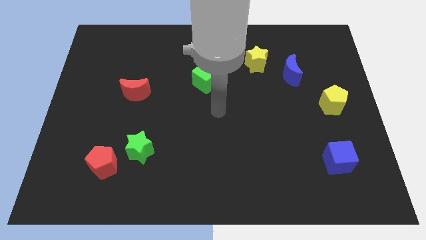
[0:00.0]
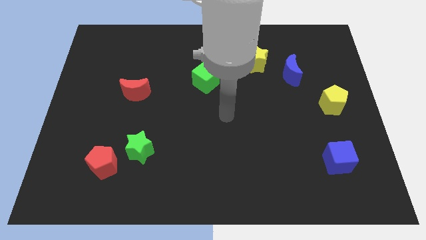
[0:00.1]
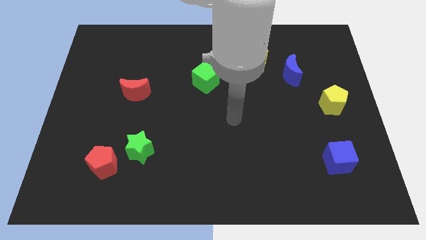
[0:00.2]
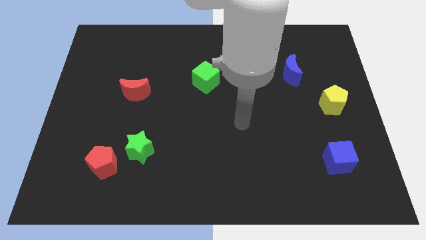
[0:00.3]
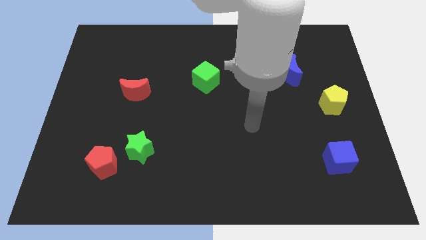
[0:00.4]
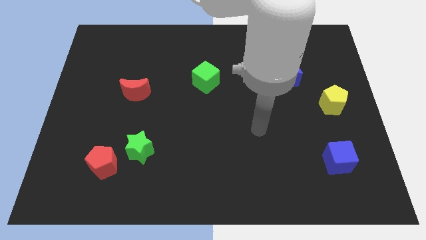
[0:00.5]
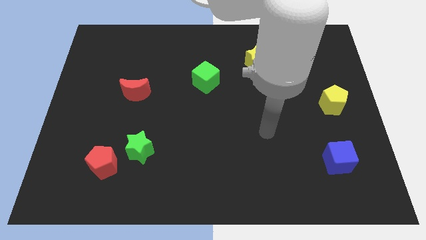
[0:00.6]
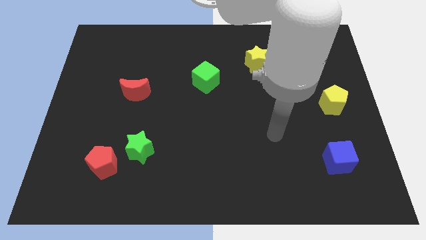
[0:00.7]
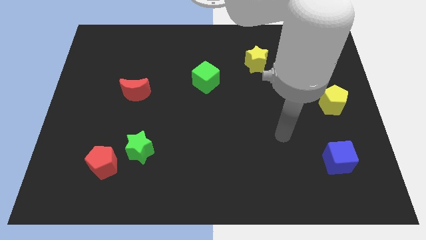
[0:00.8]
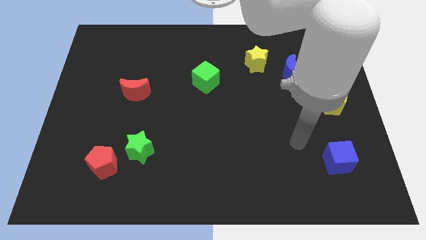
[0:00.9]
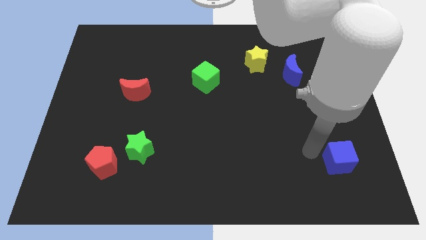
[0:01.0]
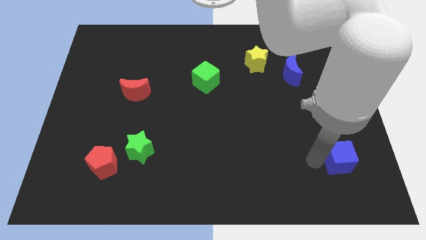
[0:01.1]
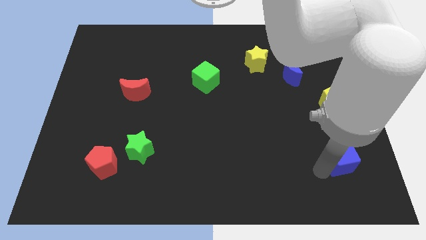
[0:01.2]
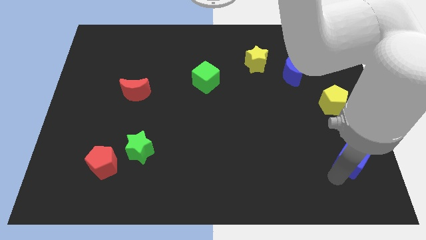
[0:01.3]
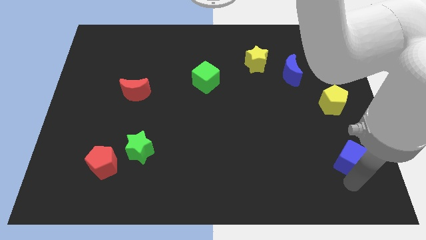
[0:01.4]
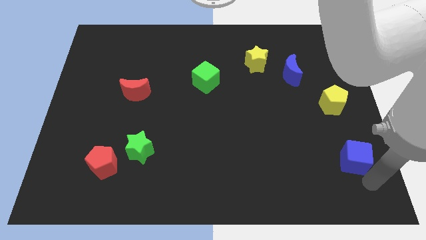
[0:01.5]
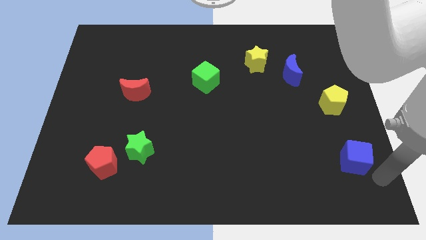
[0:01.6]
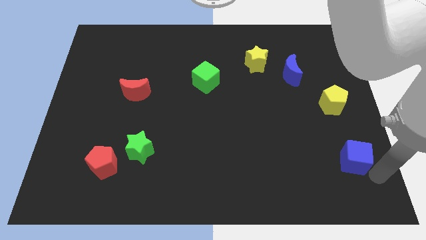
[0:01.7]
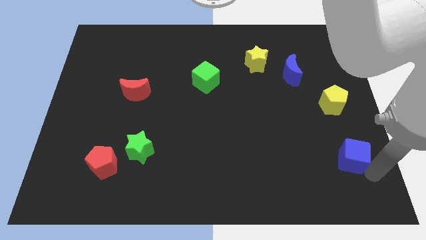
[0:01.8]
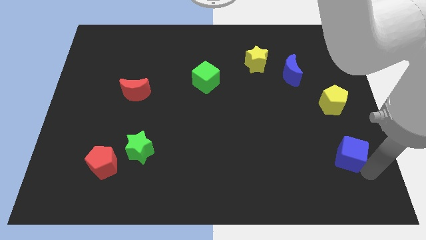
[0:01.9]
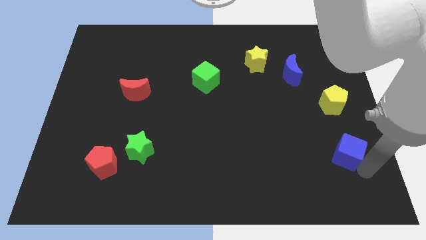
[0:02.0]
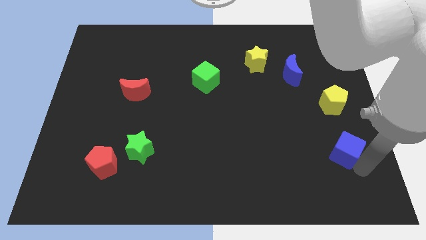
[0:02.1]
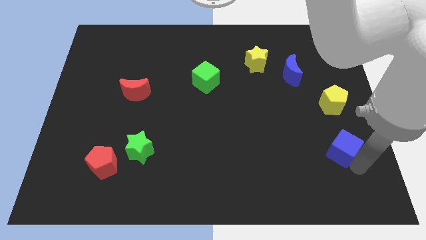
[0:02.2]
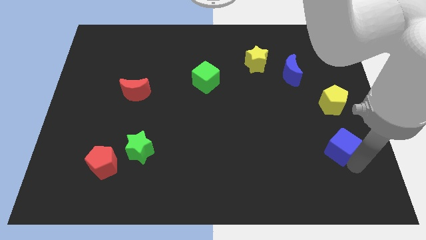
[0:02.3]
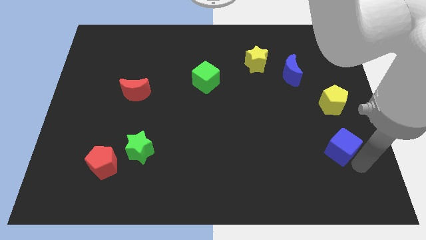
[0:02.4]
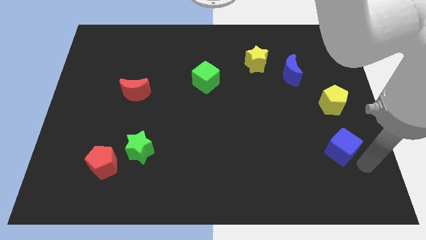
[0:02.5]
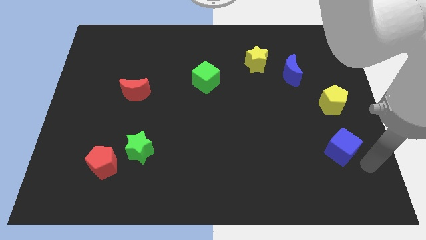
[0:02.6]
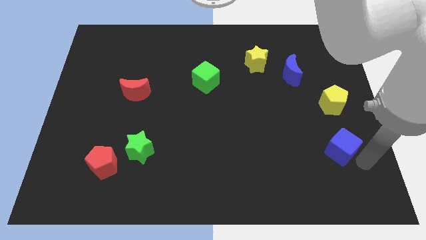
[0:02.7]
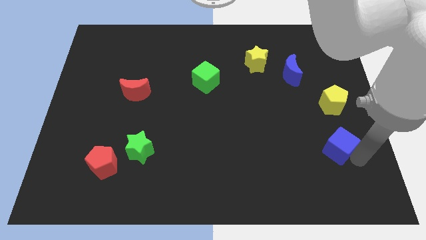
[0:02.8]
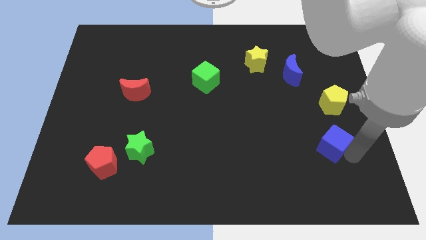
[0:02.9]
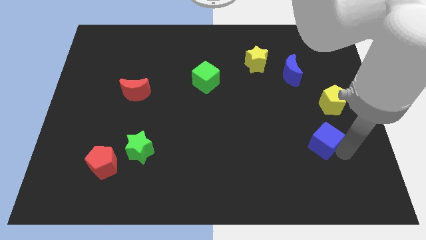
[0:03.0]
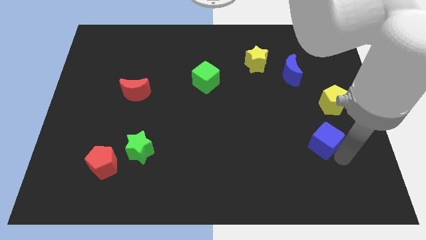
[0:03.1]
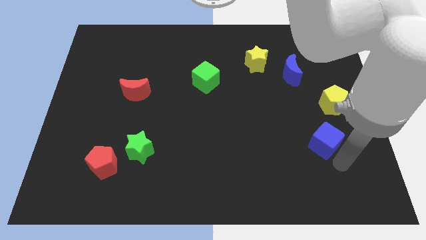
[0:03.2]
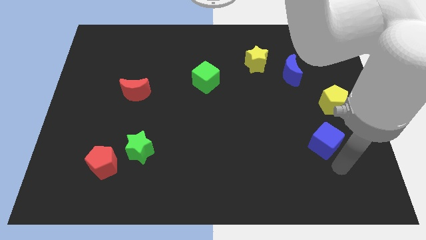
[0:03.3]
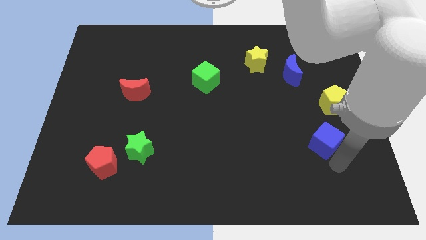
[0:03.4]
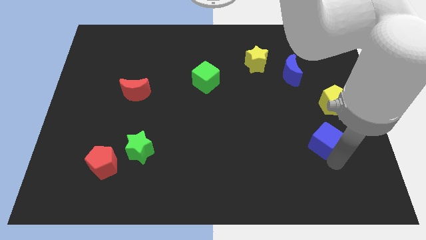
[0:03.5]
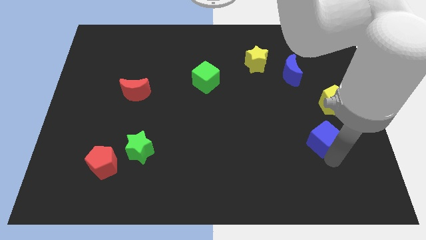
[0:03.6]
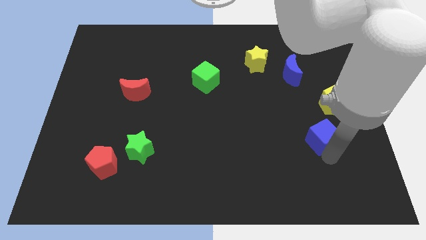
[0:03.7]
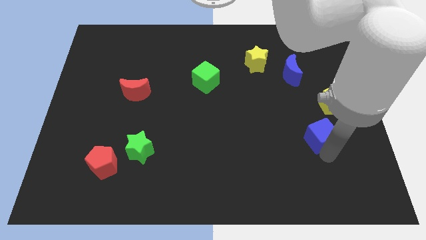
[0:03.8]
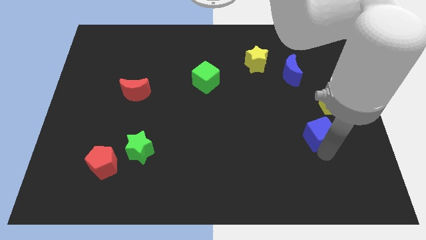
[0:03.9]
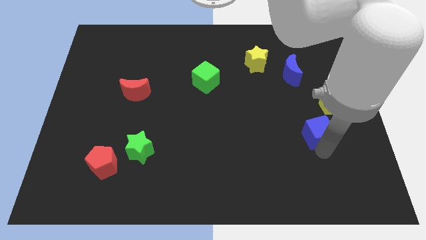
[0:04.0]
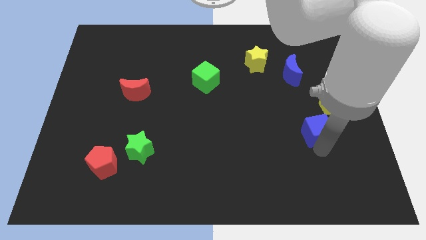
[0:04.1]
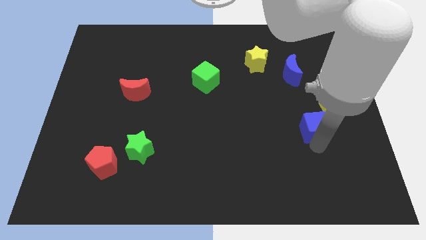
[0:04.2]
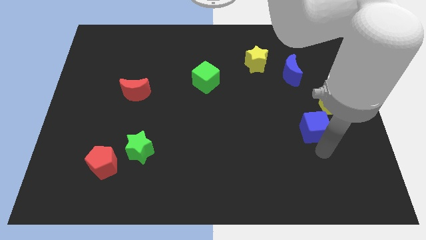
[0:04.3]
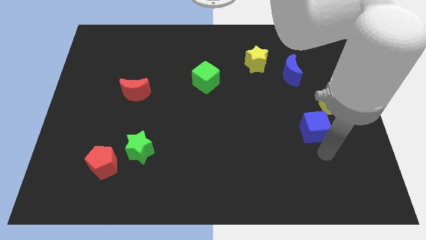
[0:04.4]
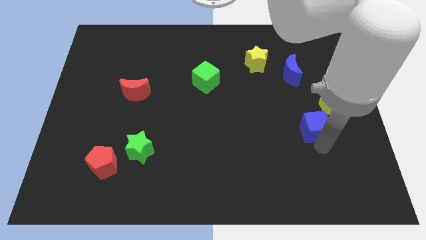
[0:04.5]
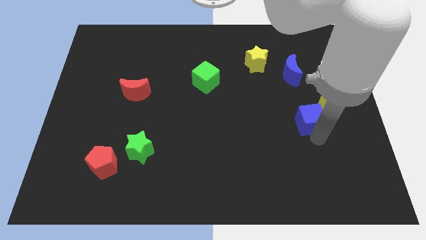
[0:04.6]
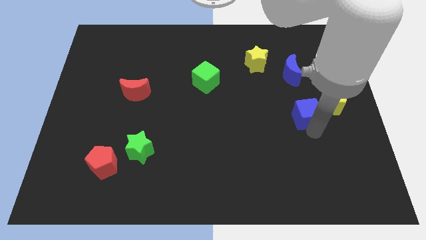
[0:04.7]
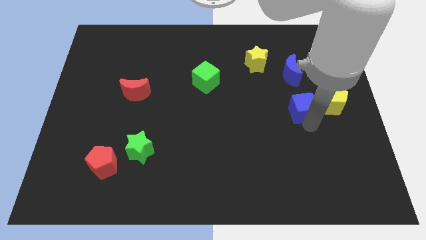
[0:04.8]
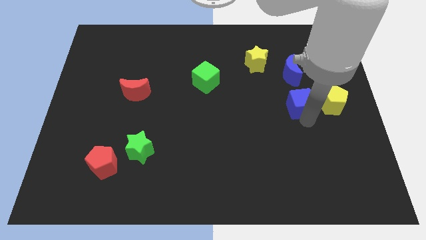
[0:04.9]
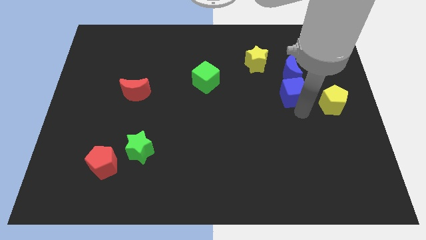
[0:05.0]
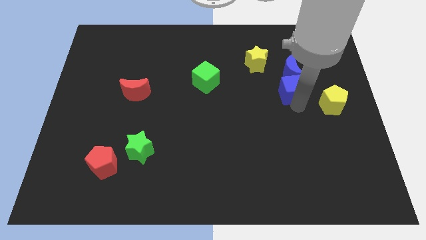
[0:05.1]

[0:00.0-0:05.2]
put the blue cube to the blue moon

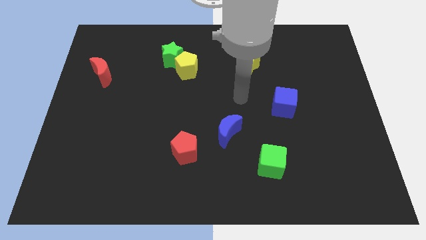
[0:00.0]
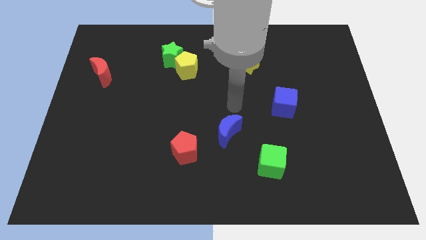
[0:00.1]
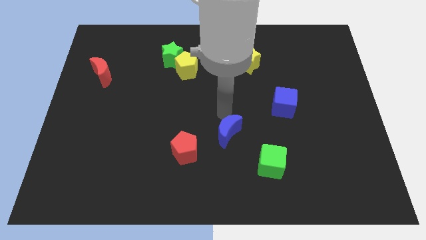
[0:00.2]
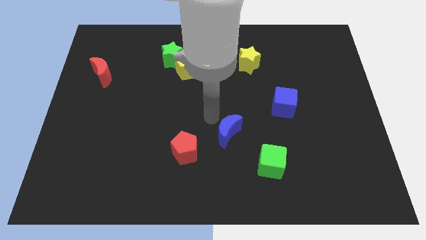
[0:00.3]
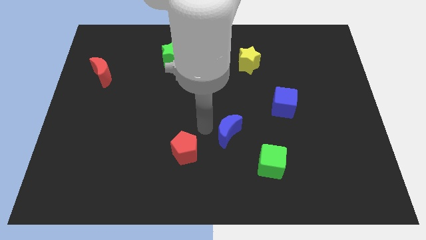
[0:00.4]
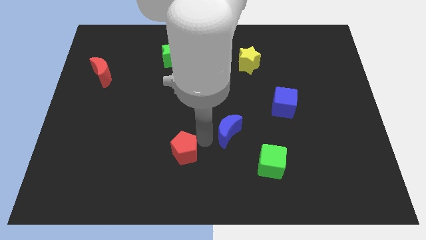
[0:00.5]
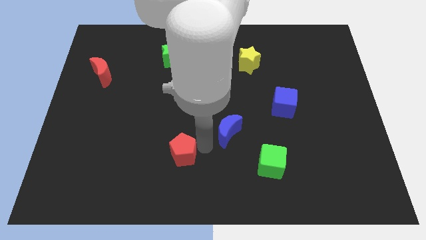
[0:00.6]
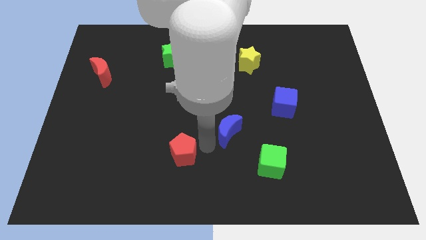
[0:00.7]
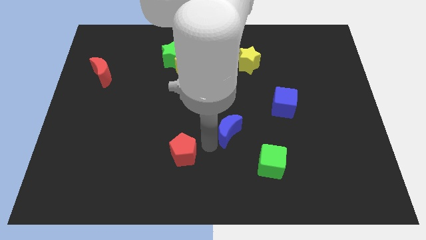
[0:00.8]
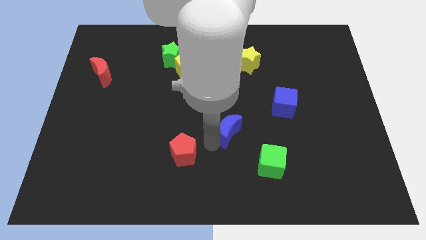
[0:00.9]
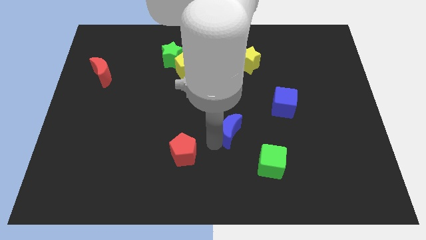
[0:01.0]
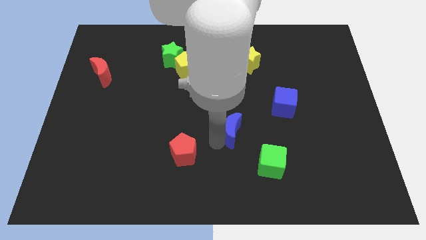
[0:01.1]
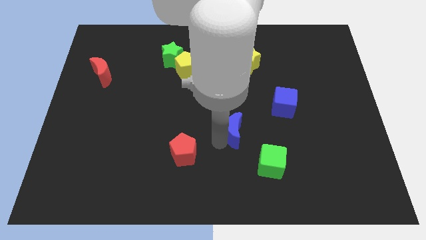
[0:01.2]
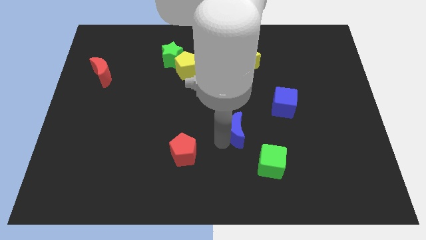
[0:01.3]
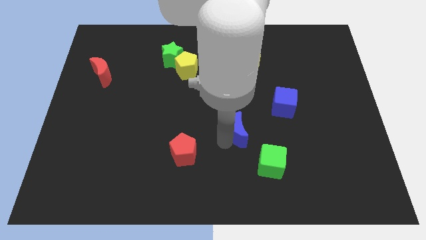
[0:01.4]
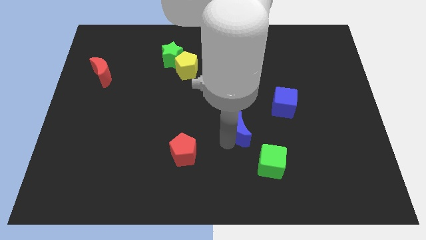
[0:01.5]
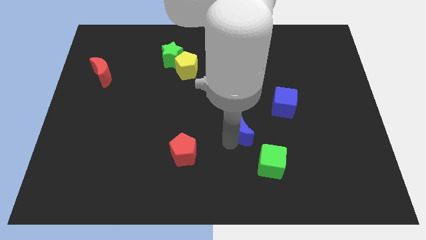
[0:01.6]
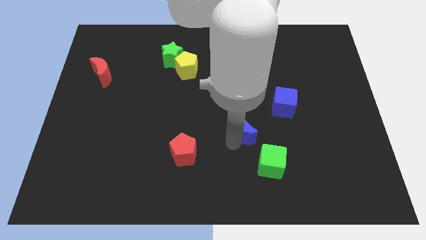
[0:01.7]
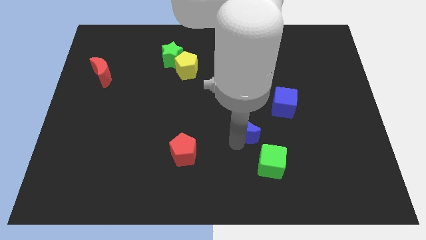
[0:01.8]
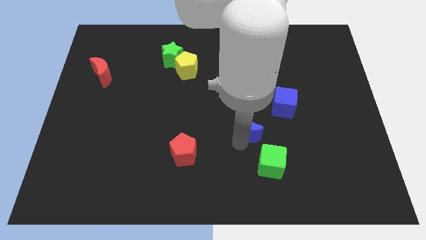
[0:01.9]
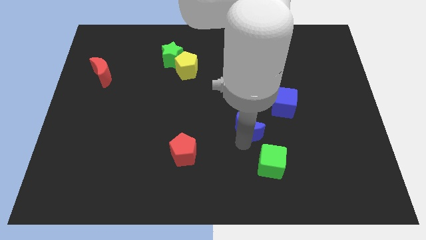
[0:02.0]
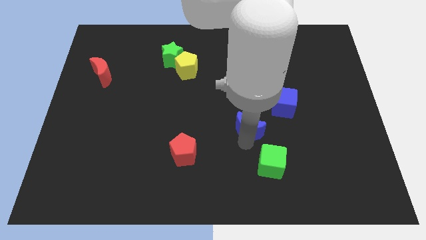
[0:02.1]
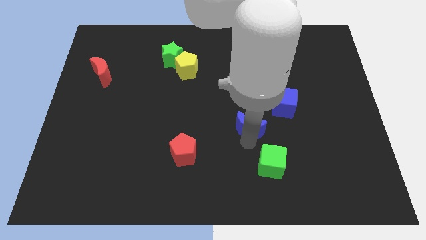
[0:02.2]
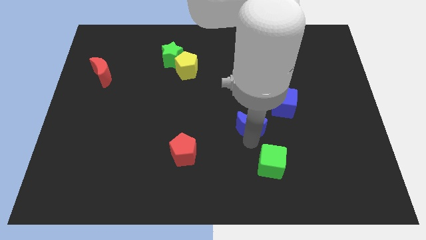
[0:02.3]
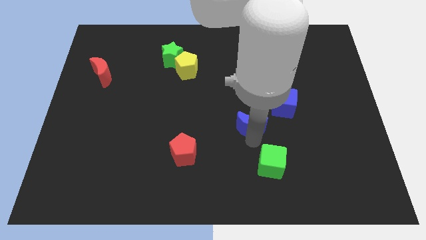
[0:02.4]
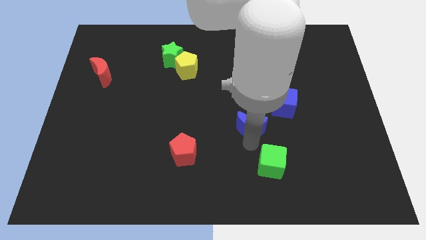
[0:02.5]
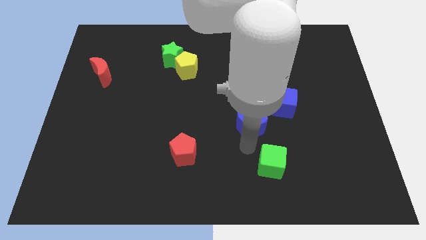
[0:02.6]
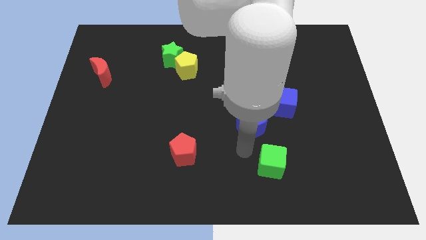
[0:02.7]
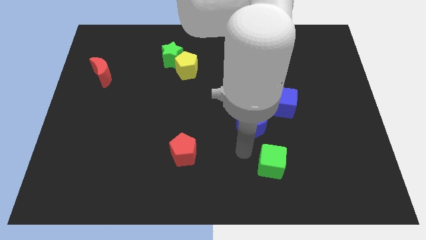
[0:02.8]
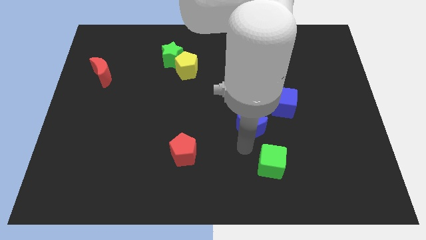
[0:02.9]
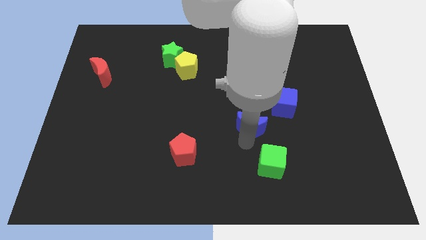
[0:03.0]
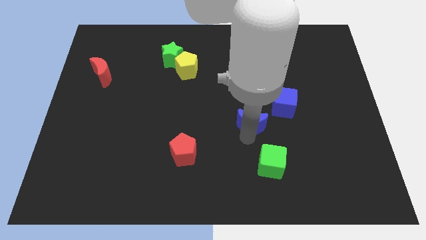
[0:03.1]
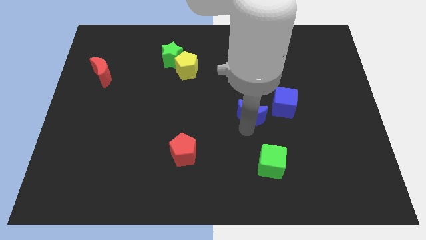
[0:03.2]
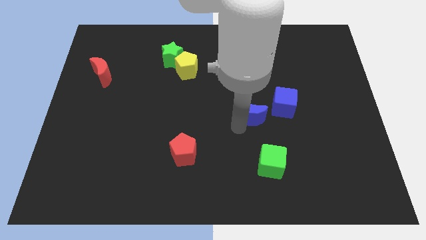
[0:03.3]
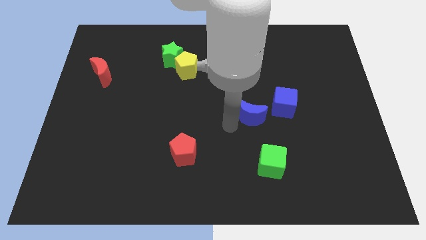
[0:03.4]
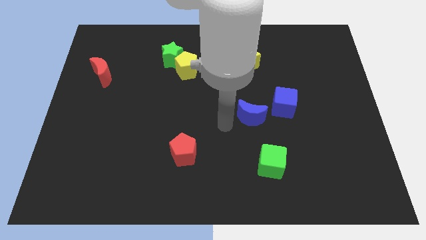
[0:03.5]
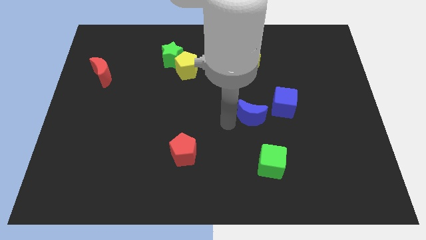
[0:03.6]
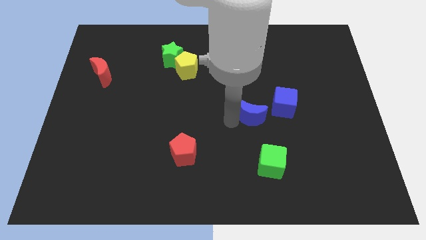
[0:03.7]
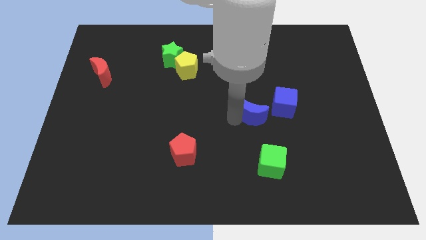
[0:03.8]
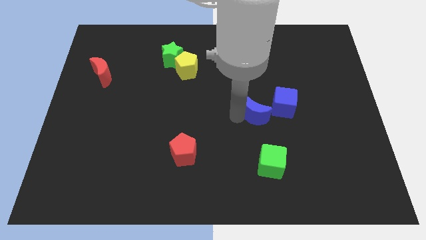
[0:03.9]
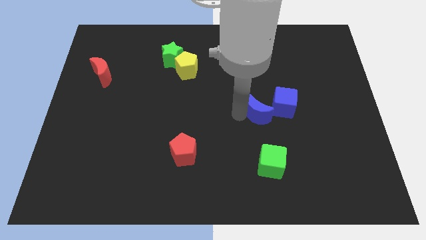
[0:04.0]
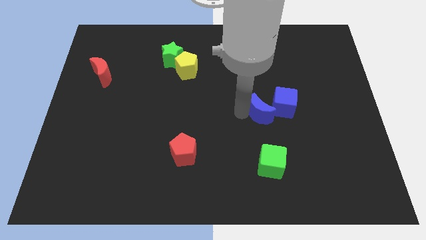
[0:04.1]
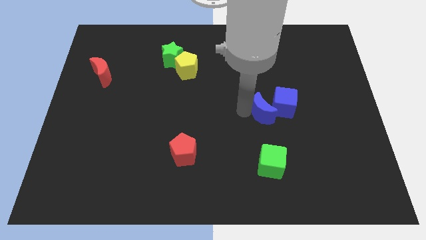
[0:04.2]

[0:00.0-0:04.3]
move the blue moon towards the blue cube
